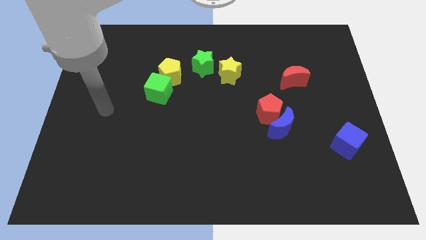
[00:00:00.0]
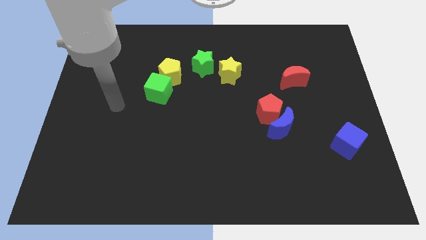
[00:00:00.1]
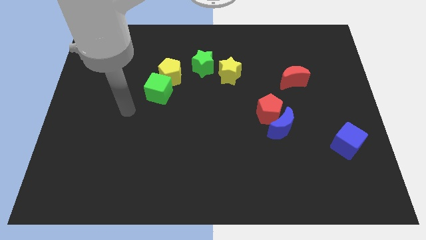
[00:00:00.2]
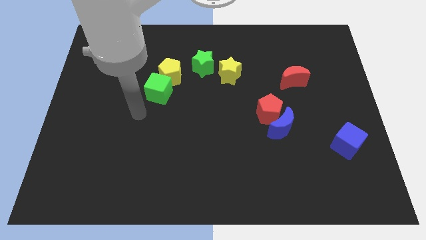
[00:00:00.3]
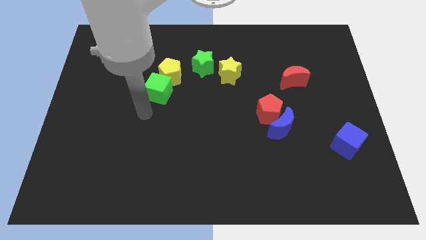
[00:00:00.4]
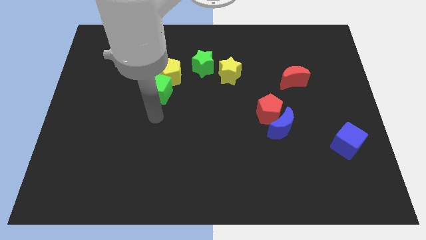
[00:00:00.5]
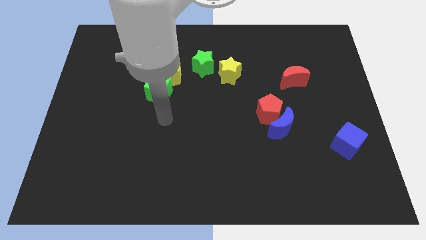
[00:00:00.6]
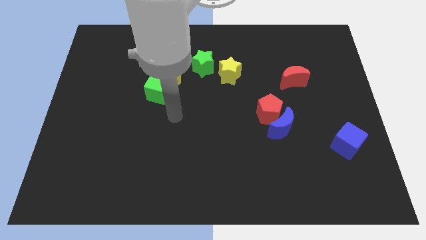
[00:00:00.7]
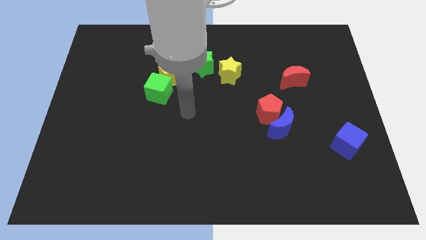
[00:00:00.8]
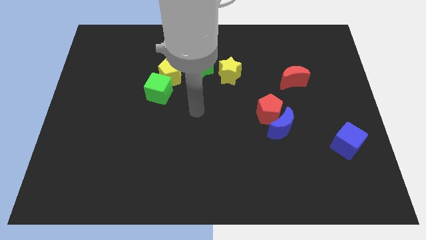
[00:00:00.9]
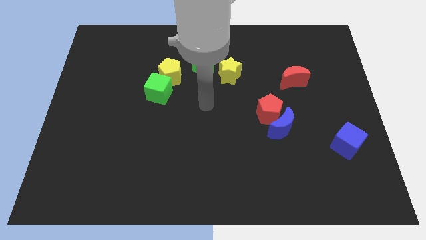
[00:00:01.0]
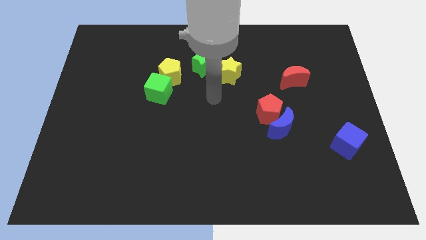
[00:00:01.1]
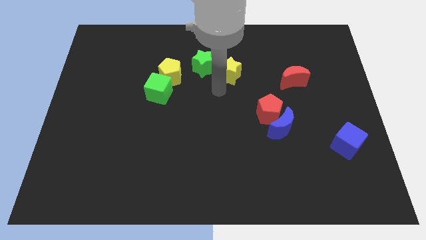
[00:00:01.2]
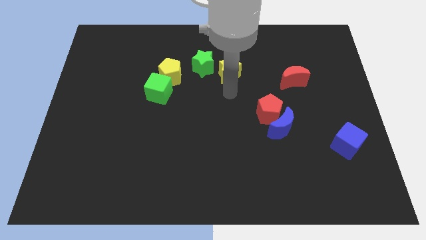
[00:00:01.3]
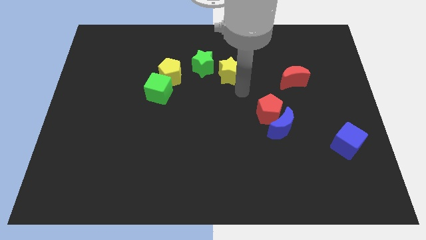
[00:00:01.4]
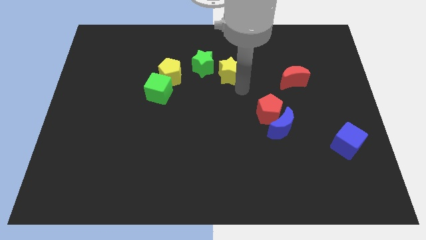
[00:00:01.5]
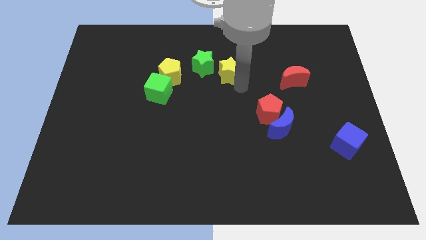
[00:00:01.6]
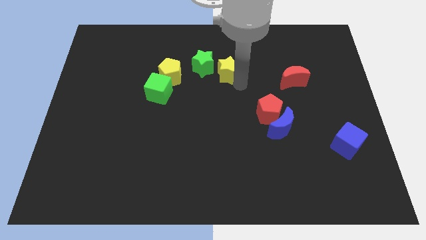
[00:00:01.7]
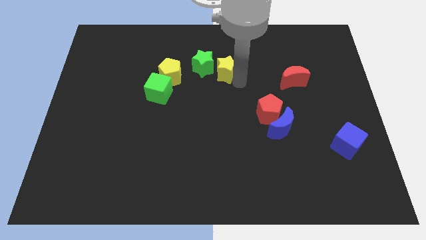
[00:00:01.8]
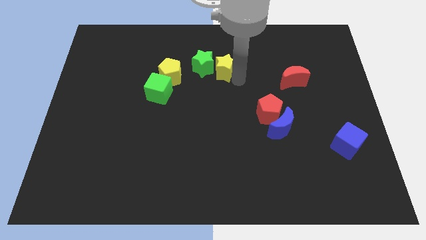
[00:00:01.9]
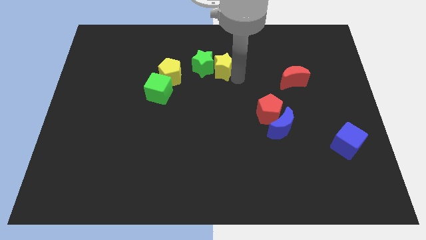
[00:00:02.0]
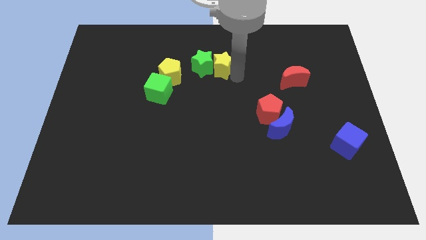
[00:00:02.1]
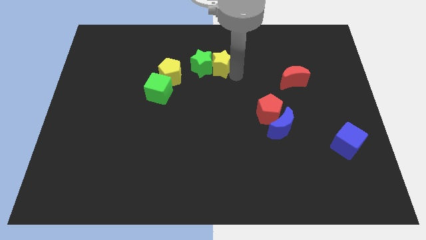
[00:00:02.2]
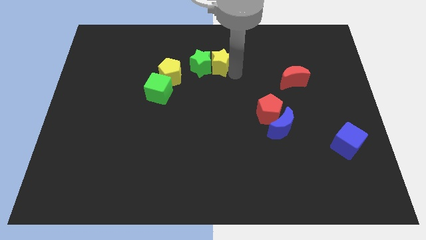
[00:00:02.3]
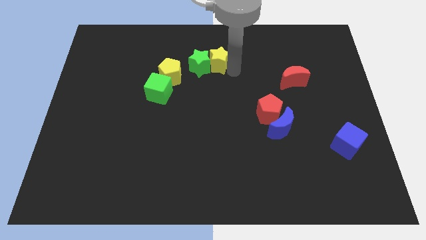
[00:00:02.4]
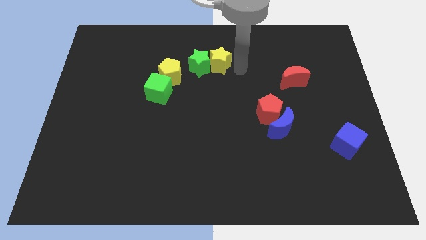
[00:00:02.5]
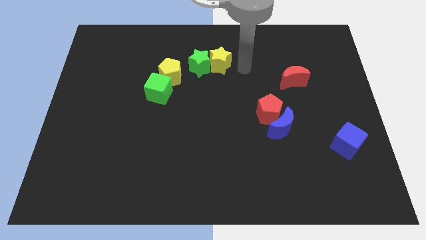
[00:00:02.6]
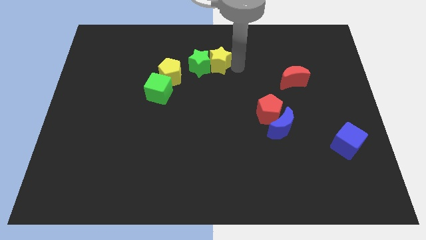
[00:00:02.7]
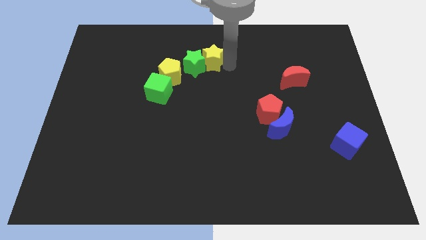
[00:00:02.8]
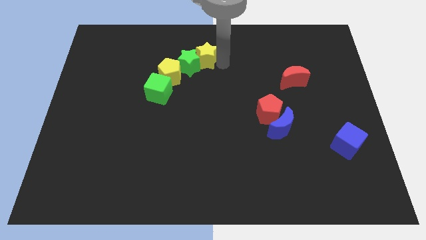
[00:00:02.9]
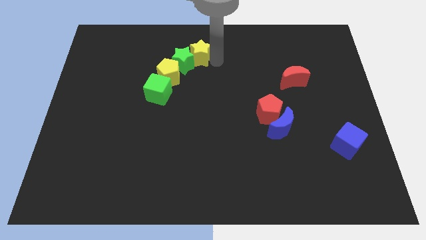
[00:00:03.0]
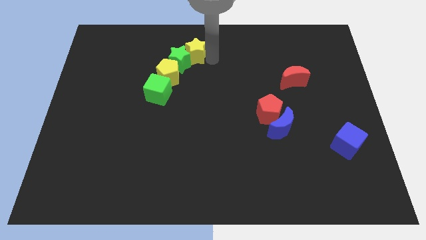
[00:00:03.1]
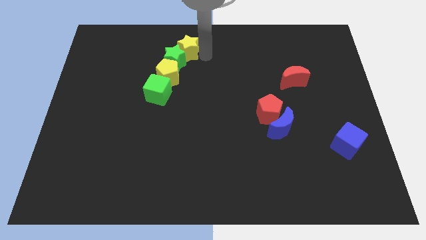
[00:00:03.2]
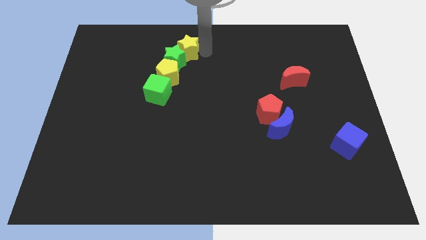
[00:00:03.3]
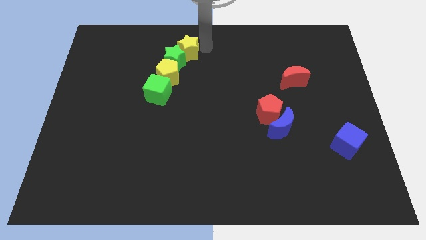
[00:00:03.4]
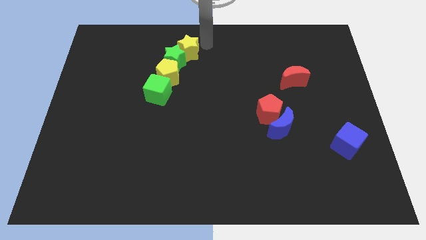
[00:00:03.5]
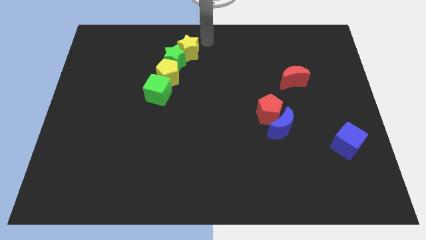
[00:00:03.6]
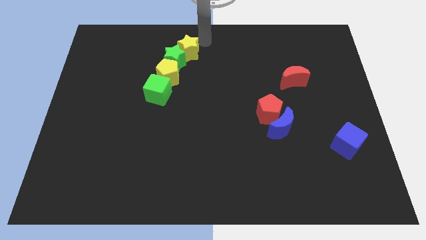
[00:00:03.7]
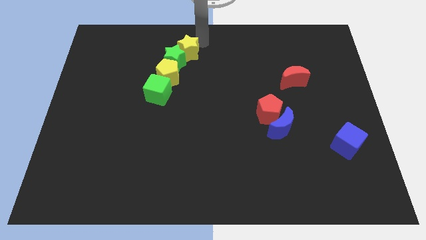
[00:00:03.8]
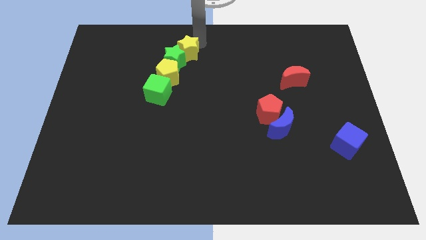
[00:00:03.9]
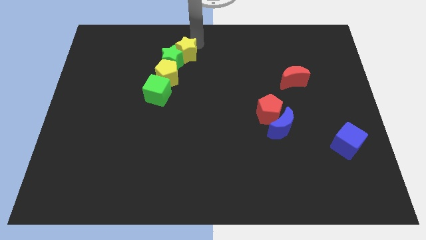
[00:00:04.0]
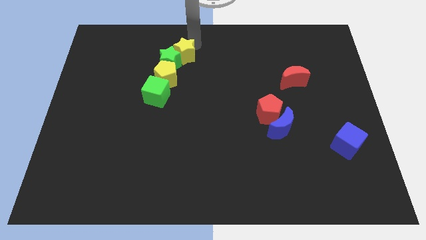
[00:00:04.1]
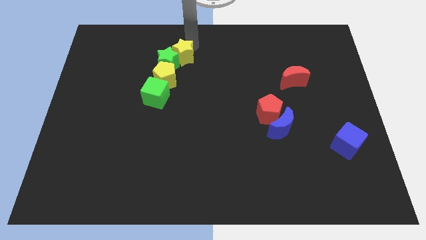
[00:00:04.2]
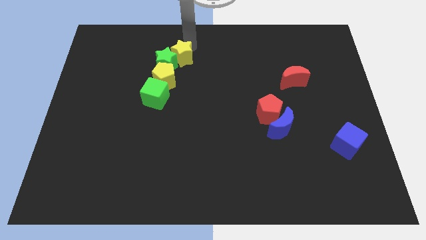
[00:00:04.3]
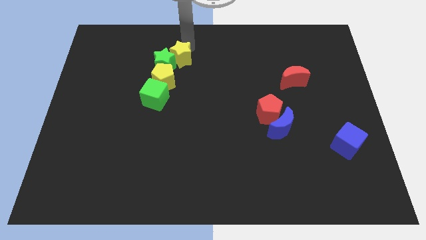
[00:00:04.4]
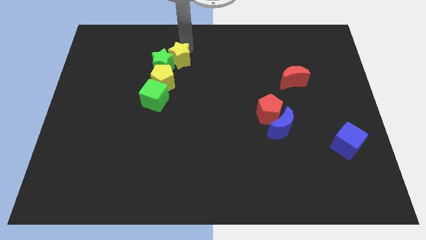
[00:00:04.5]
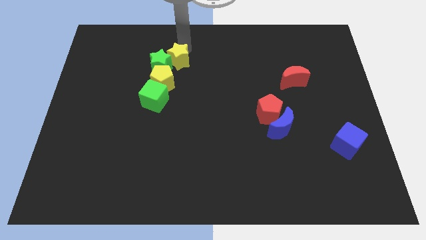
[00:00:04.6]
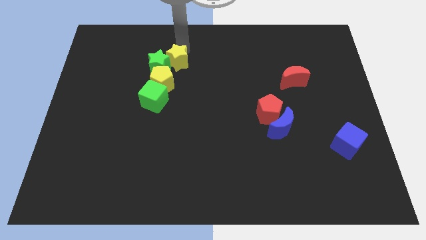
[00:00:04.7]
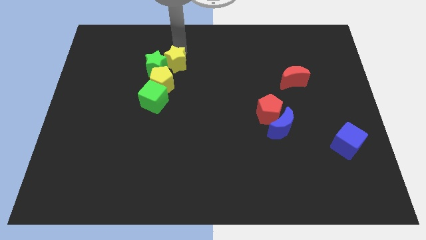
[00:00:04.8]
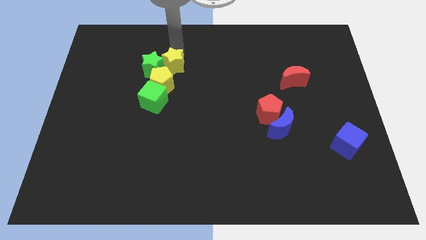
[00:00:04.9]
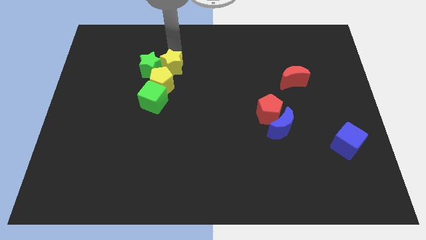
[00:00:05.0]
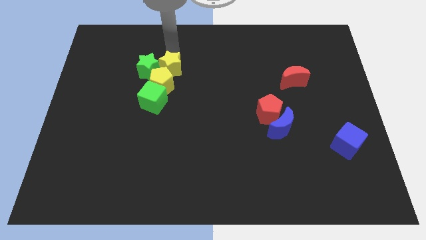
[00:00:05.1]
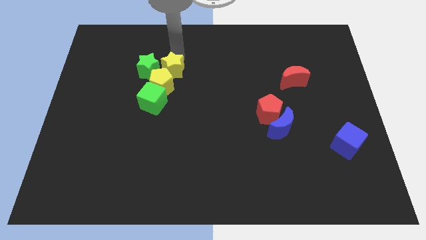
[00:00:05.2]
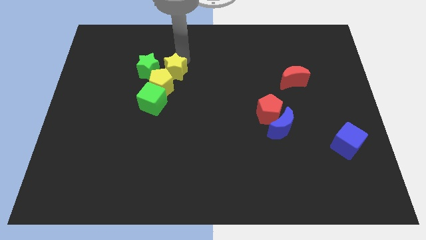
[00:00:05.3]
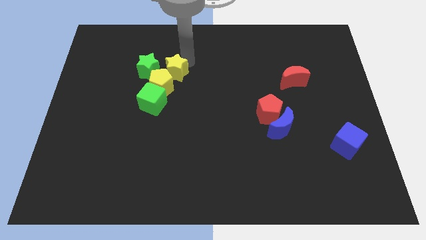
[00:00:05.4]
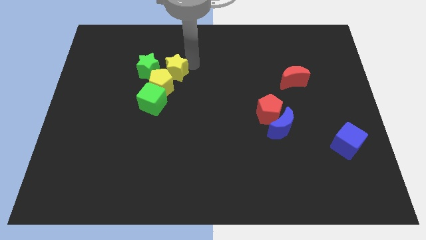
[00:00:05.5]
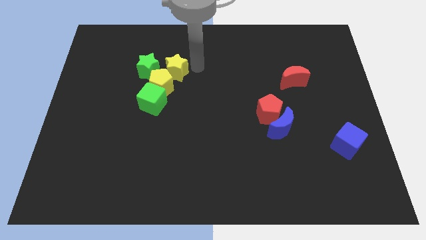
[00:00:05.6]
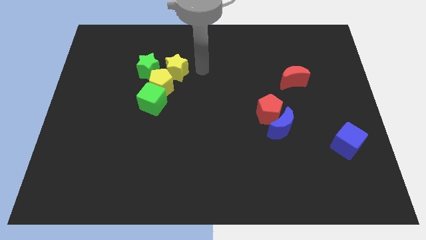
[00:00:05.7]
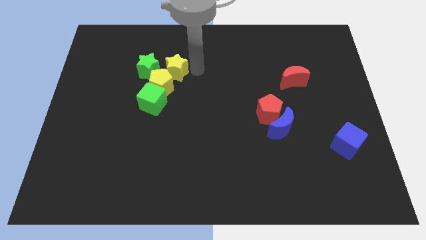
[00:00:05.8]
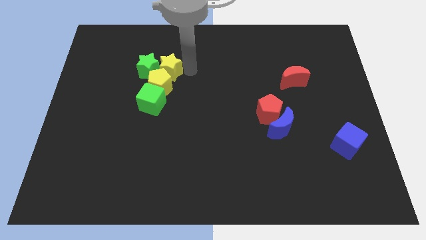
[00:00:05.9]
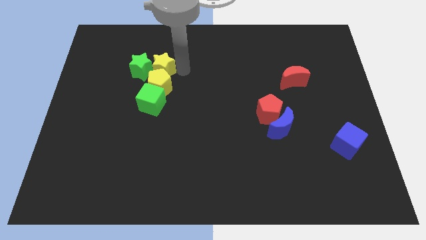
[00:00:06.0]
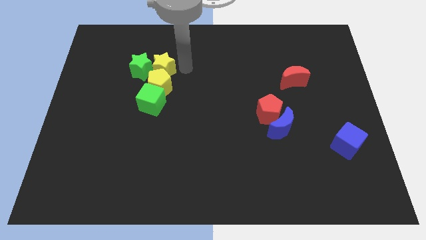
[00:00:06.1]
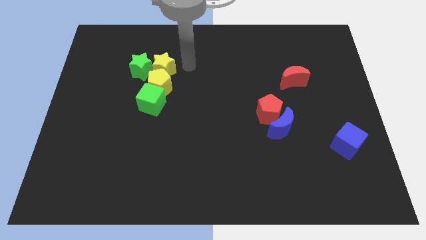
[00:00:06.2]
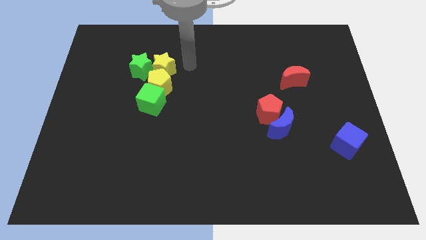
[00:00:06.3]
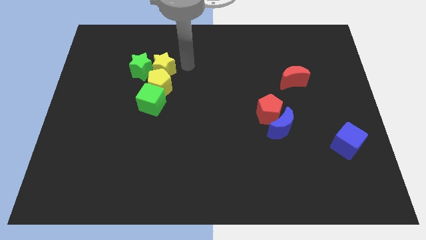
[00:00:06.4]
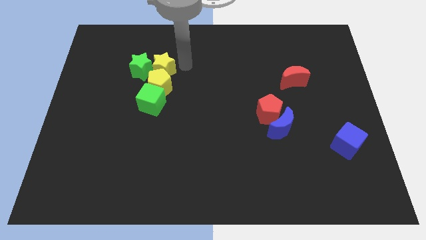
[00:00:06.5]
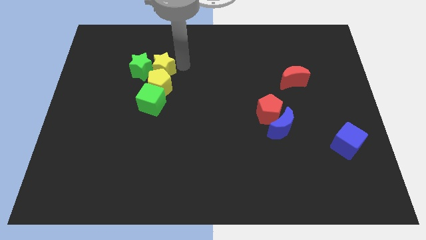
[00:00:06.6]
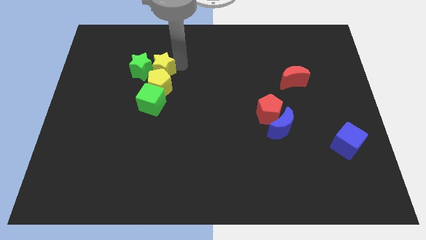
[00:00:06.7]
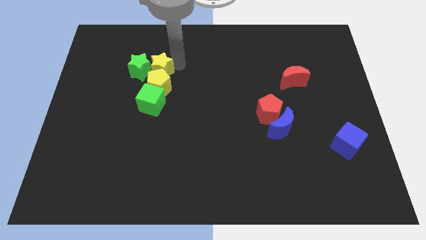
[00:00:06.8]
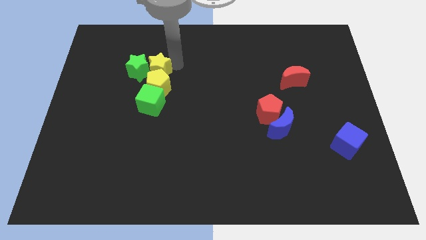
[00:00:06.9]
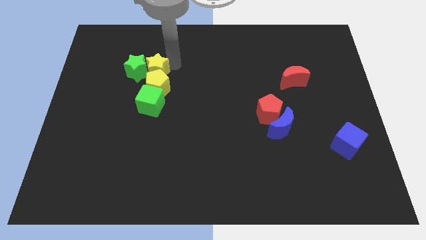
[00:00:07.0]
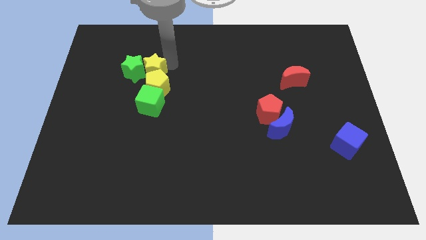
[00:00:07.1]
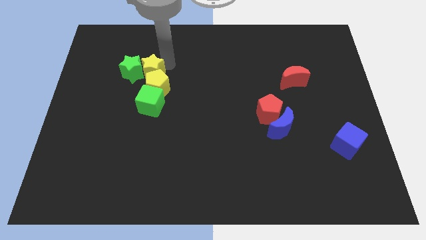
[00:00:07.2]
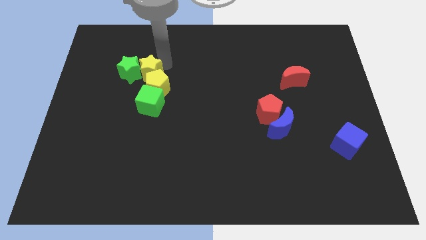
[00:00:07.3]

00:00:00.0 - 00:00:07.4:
slide the yellow star left

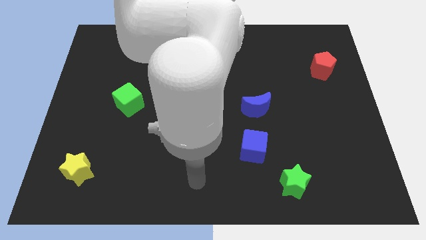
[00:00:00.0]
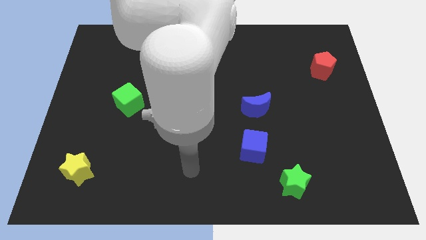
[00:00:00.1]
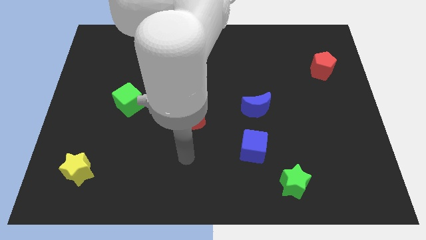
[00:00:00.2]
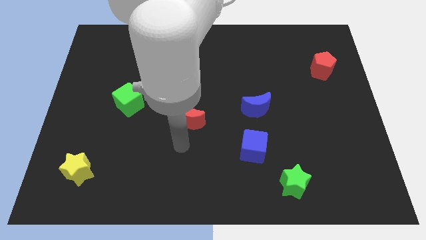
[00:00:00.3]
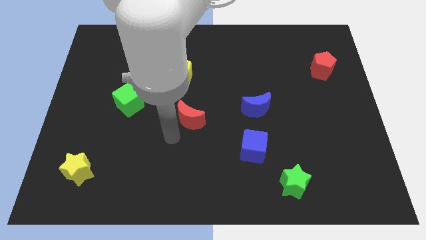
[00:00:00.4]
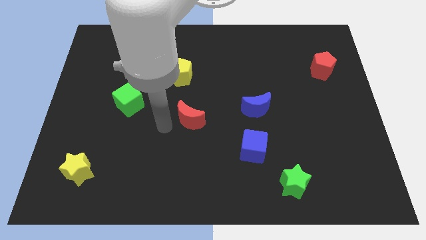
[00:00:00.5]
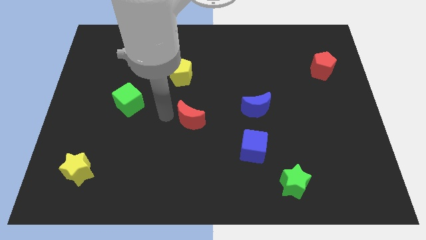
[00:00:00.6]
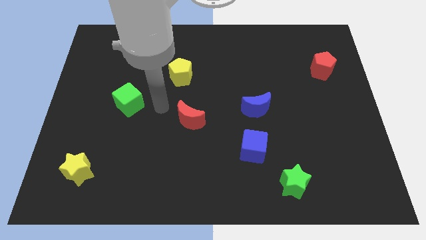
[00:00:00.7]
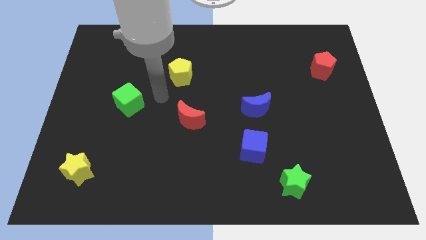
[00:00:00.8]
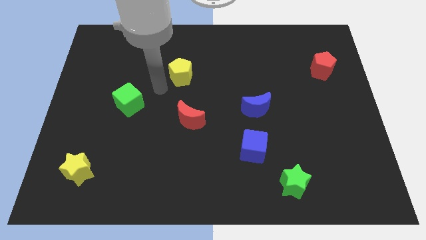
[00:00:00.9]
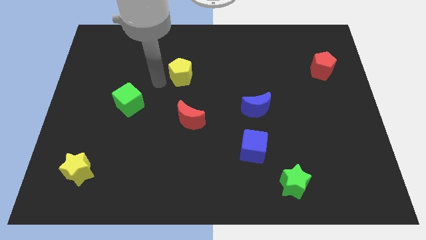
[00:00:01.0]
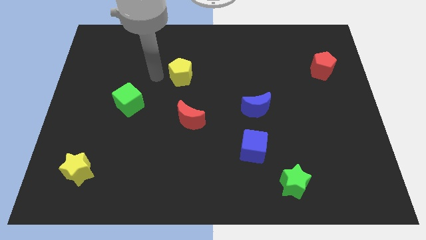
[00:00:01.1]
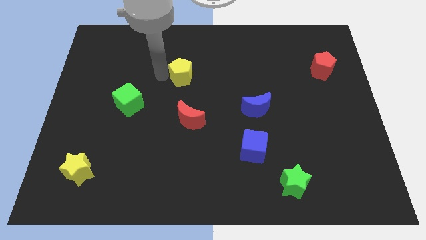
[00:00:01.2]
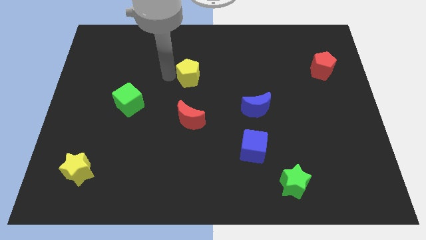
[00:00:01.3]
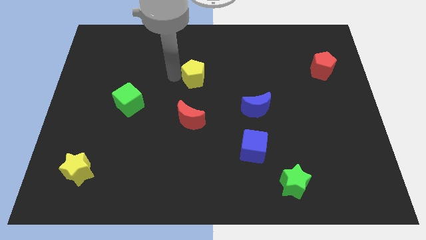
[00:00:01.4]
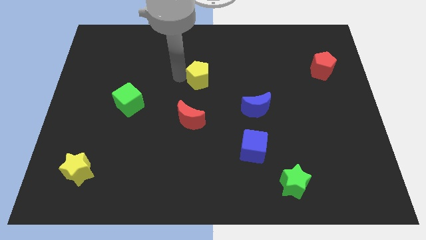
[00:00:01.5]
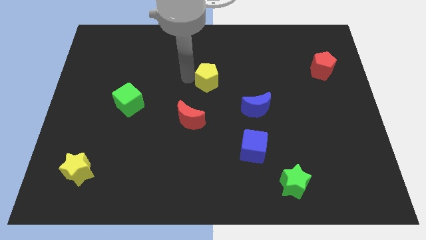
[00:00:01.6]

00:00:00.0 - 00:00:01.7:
slide the yellow pentagon to the right a little bit
